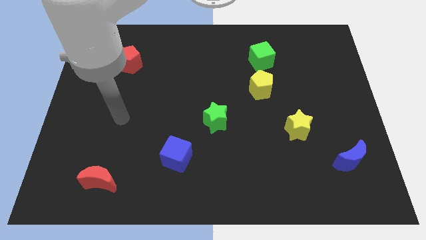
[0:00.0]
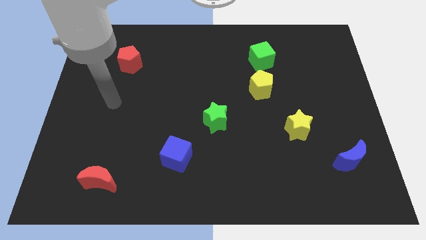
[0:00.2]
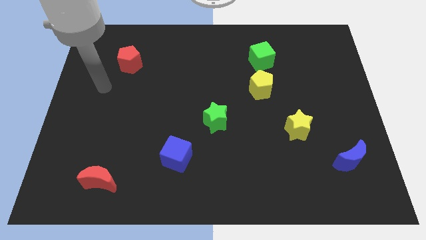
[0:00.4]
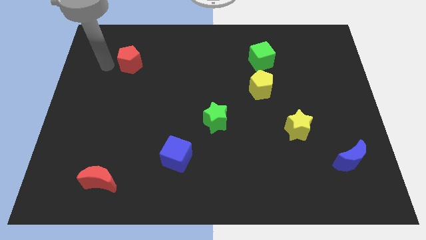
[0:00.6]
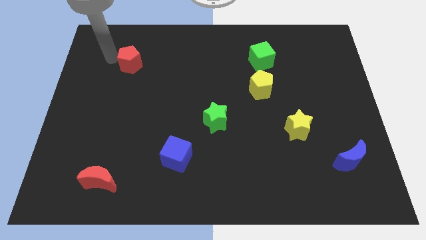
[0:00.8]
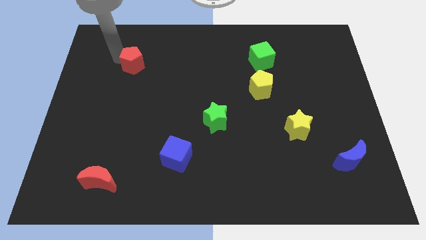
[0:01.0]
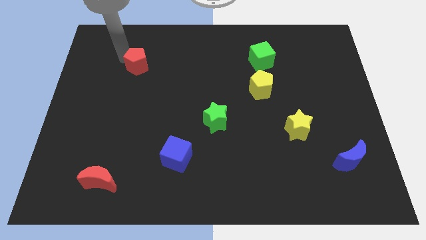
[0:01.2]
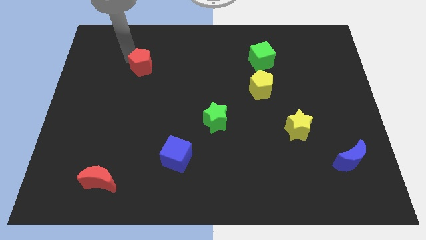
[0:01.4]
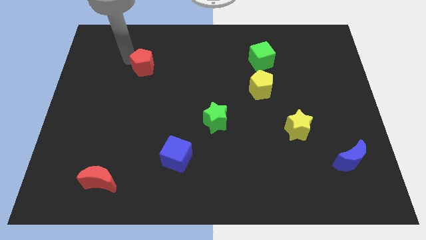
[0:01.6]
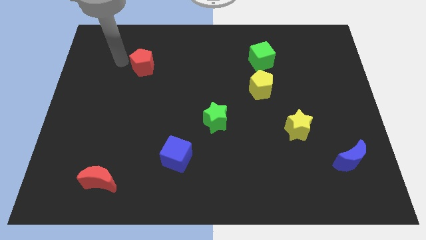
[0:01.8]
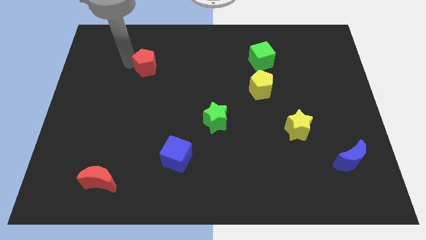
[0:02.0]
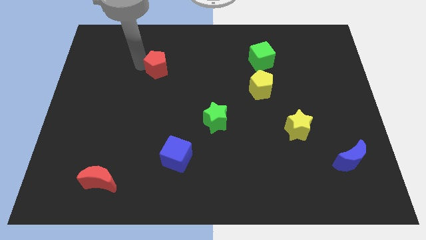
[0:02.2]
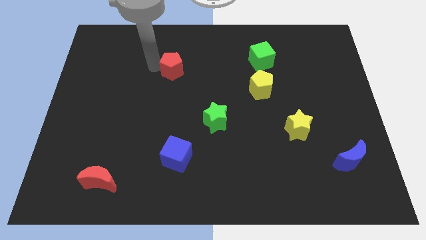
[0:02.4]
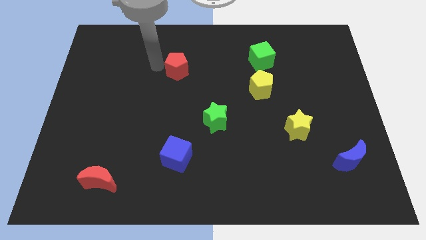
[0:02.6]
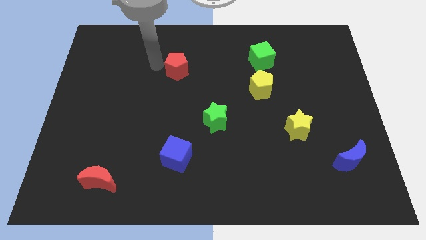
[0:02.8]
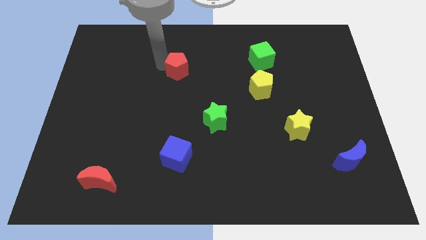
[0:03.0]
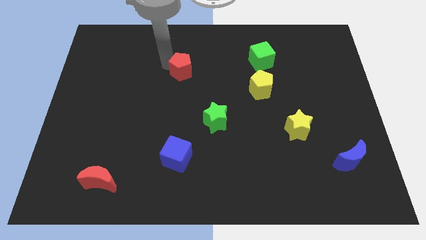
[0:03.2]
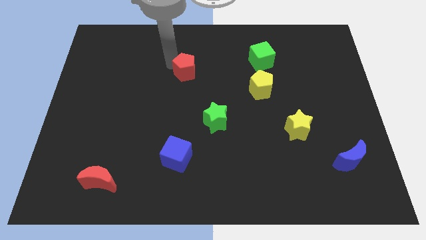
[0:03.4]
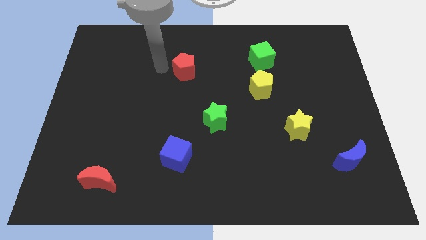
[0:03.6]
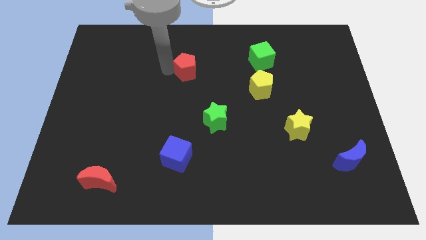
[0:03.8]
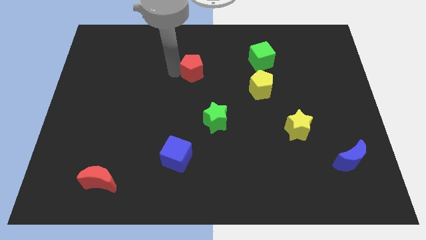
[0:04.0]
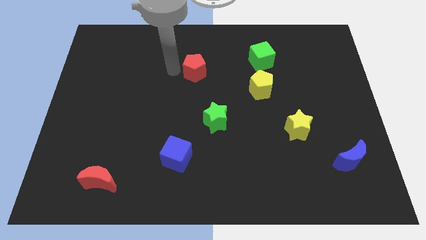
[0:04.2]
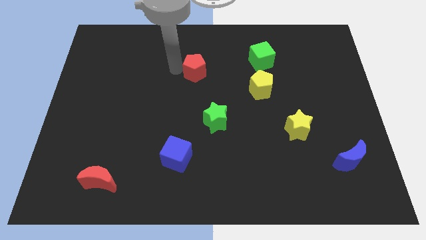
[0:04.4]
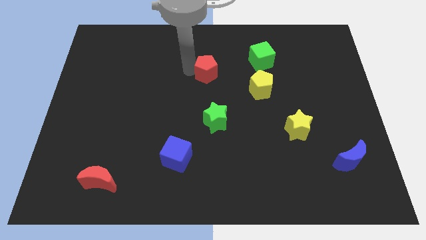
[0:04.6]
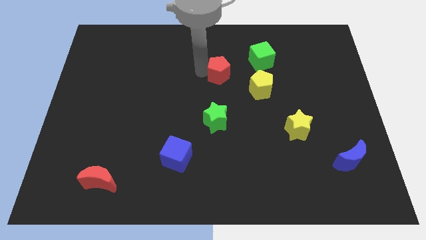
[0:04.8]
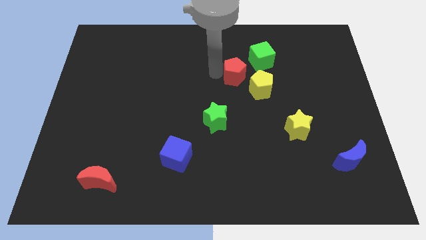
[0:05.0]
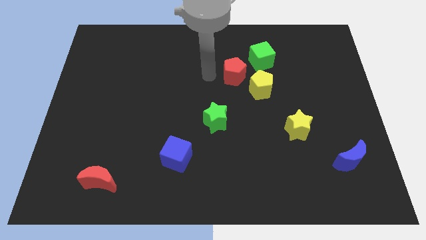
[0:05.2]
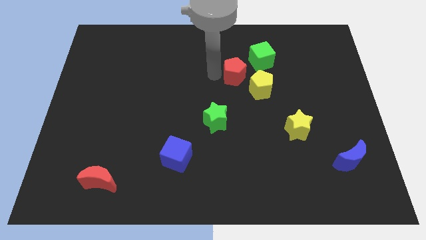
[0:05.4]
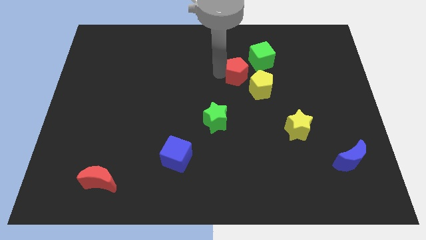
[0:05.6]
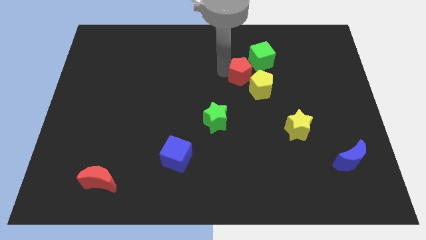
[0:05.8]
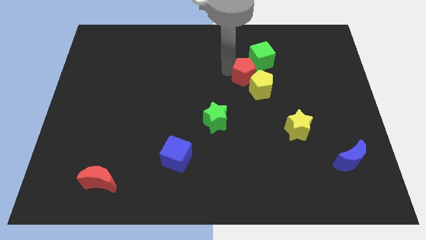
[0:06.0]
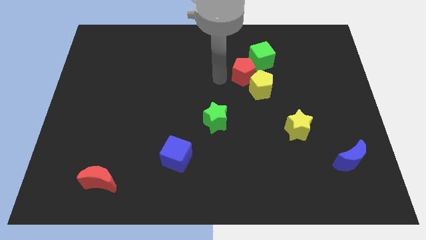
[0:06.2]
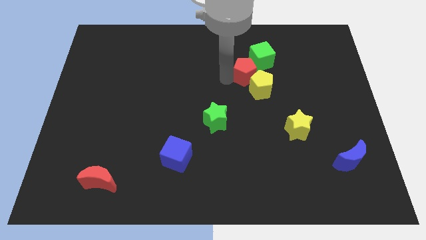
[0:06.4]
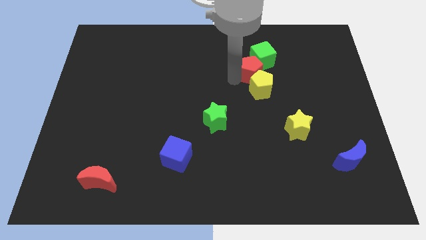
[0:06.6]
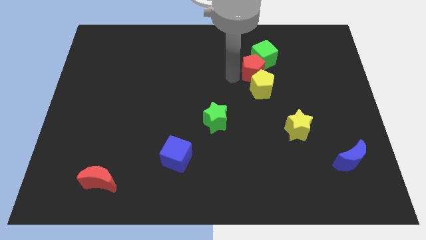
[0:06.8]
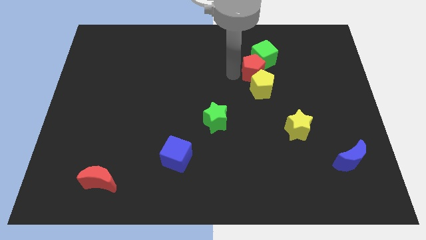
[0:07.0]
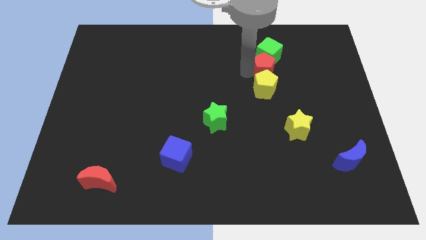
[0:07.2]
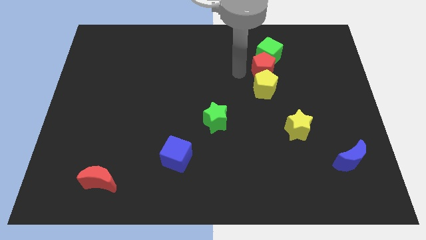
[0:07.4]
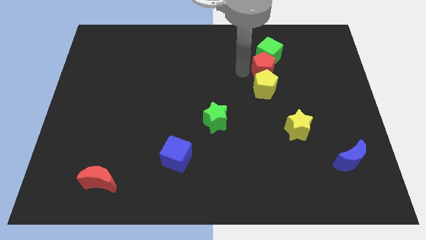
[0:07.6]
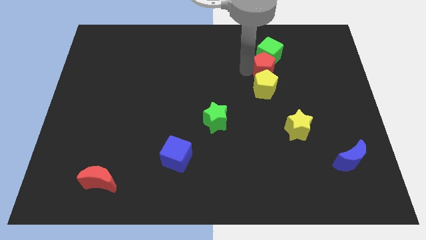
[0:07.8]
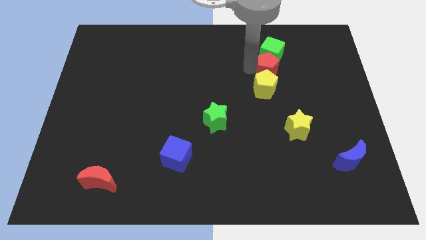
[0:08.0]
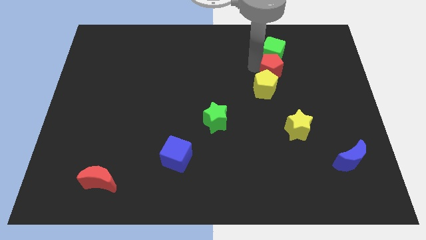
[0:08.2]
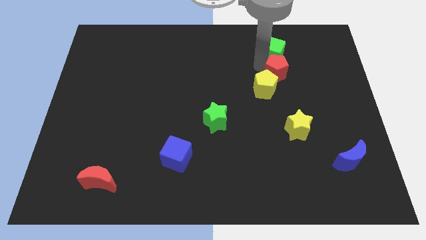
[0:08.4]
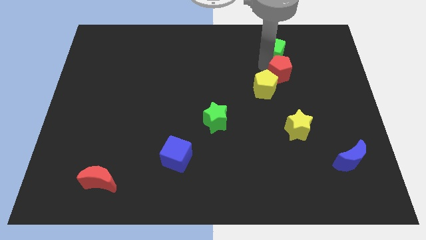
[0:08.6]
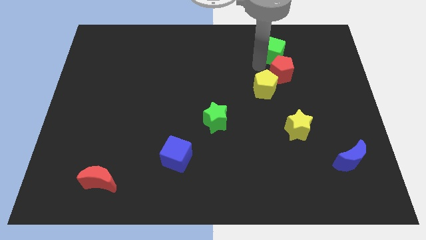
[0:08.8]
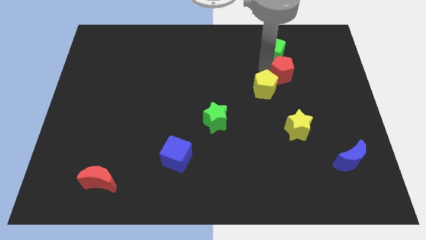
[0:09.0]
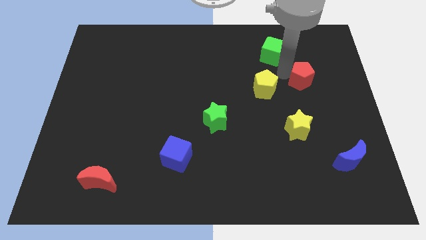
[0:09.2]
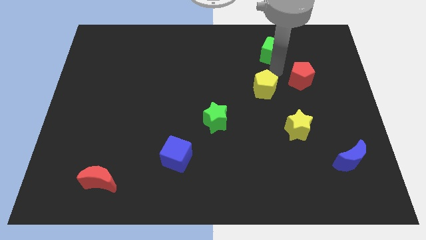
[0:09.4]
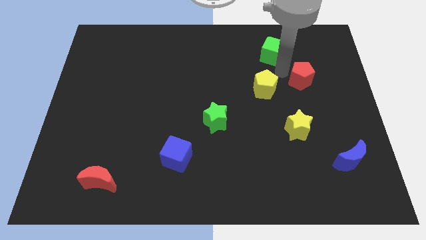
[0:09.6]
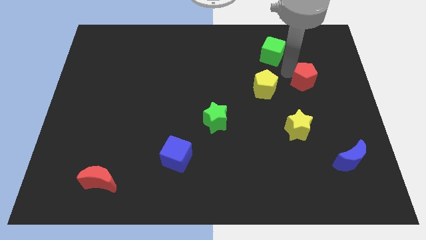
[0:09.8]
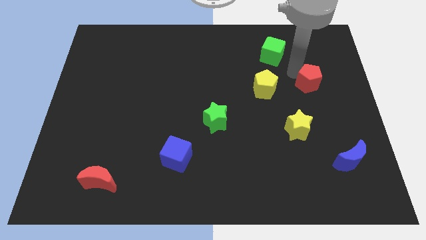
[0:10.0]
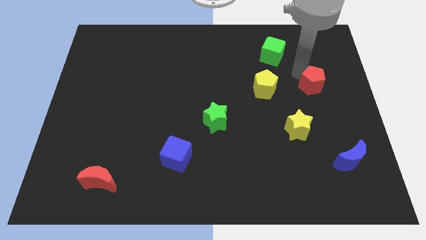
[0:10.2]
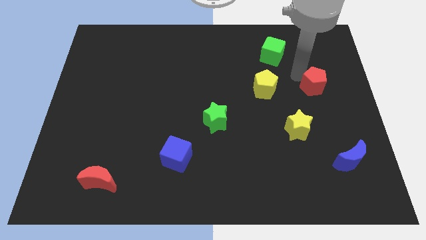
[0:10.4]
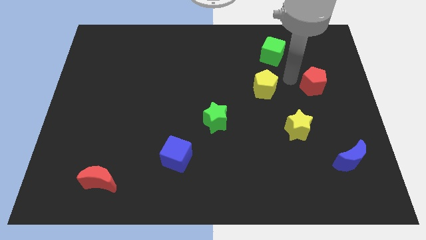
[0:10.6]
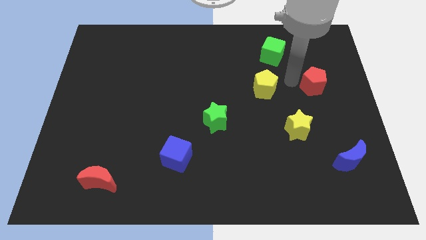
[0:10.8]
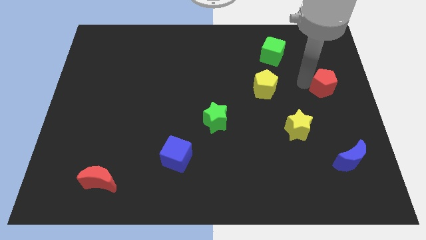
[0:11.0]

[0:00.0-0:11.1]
slide the red pentagon to the center right
